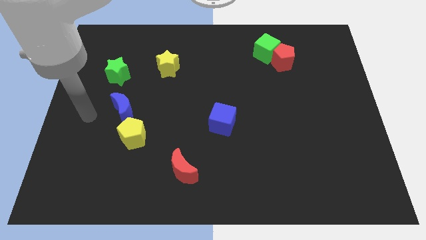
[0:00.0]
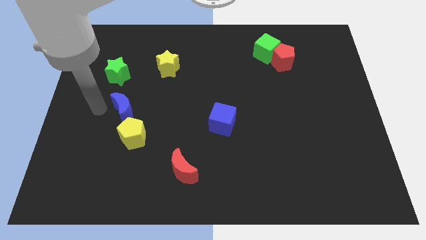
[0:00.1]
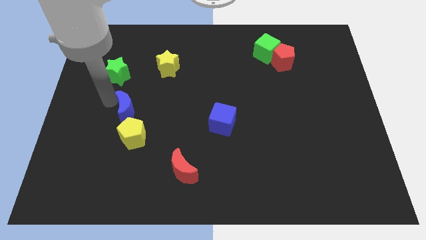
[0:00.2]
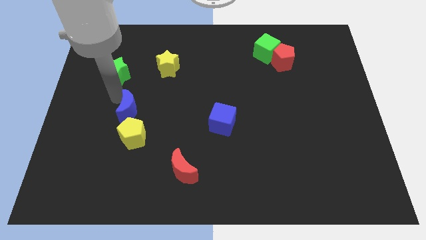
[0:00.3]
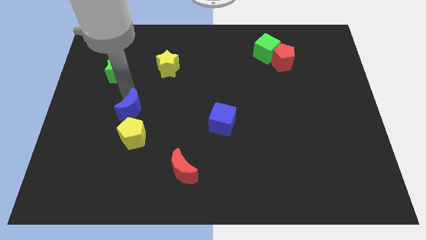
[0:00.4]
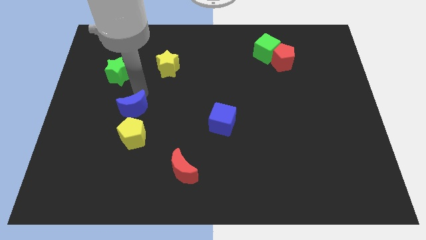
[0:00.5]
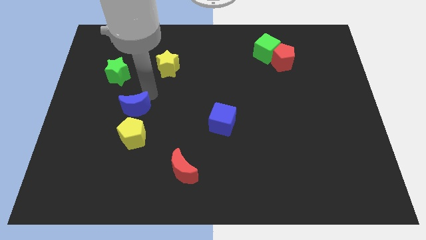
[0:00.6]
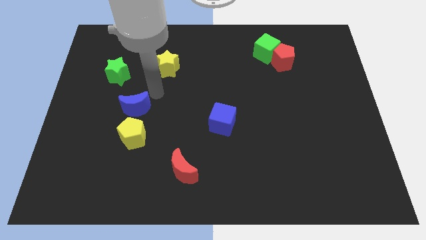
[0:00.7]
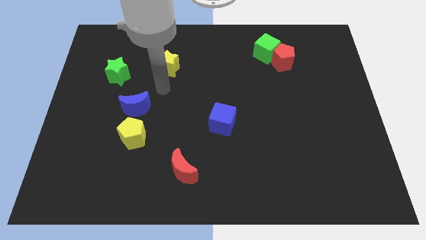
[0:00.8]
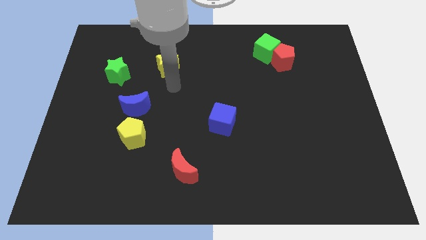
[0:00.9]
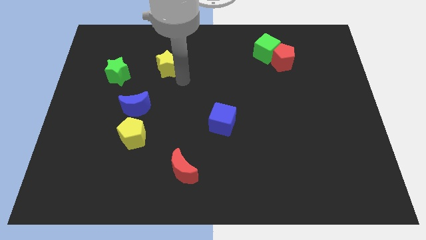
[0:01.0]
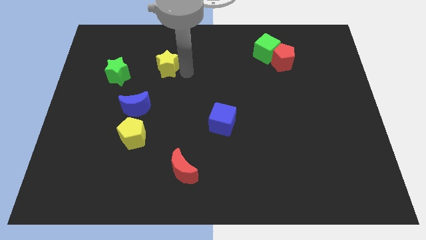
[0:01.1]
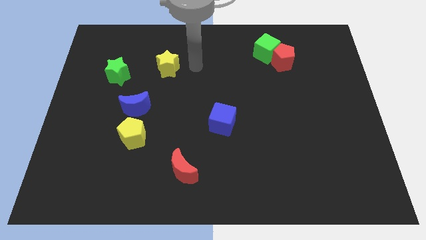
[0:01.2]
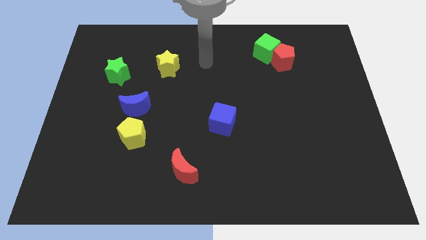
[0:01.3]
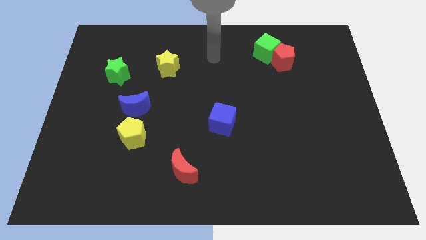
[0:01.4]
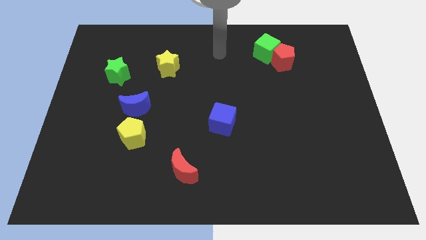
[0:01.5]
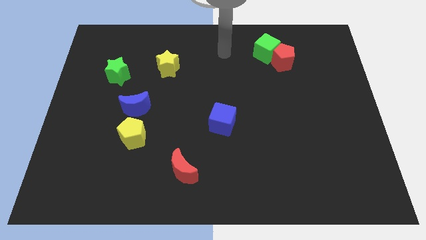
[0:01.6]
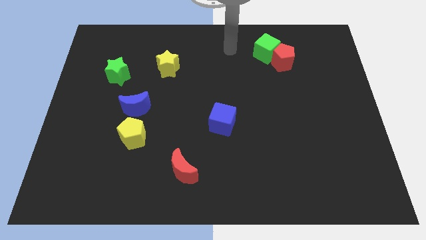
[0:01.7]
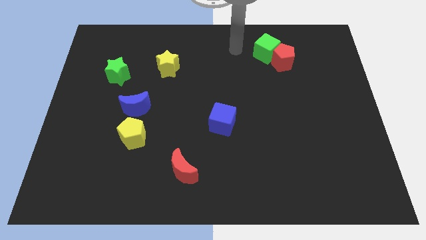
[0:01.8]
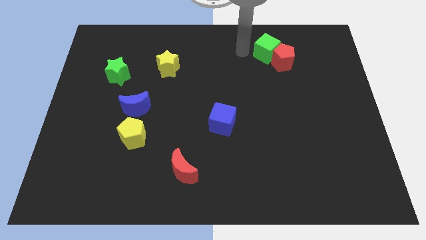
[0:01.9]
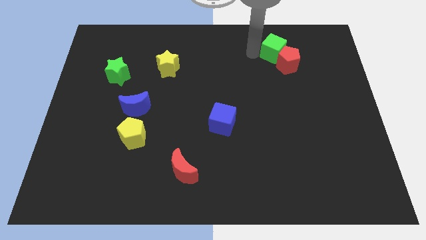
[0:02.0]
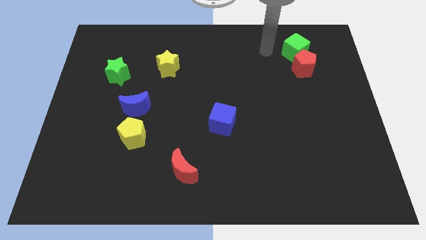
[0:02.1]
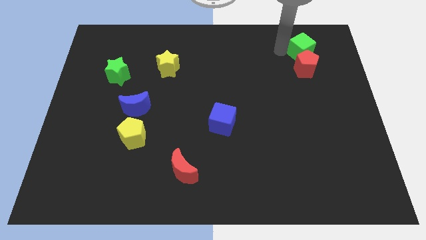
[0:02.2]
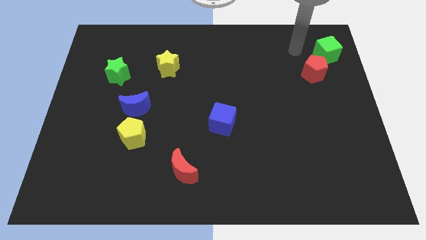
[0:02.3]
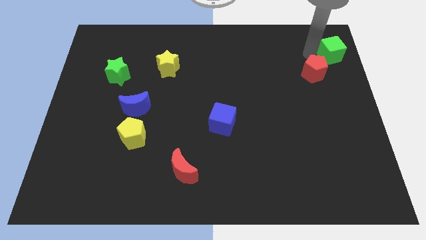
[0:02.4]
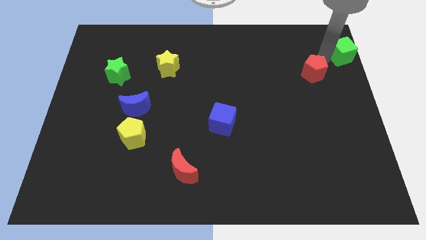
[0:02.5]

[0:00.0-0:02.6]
separate the red pentagon from the green cube

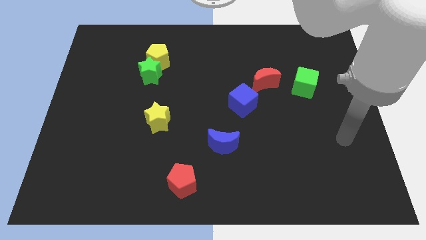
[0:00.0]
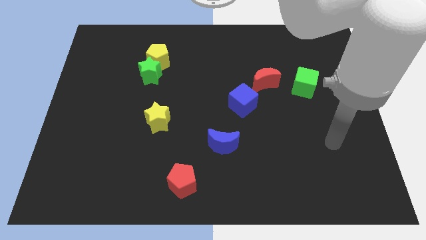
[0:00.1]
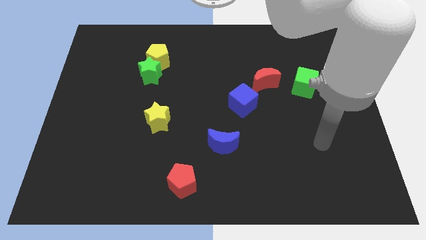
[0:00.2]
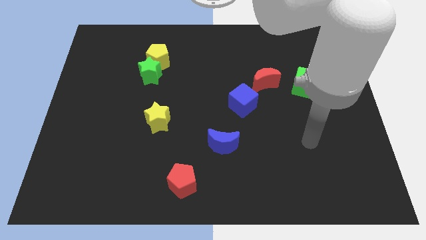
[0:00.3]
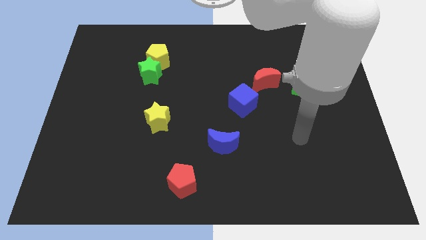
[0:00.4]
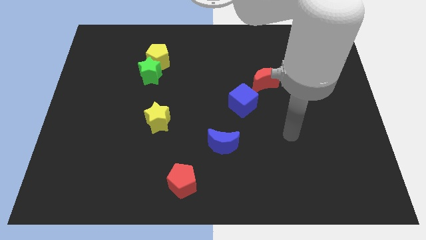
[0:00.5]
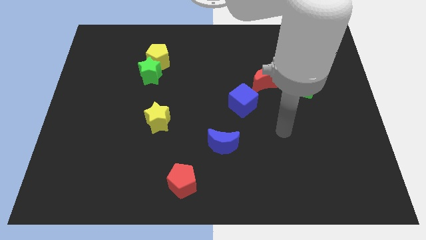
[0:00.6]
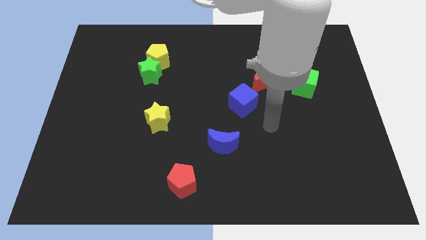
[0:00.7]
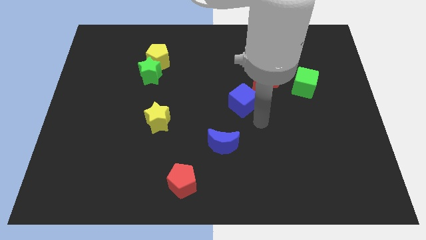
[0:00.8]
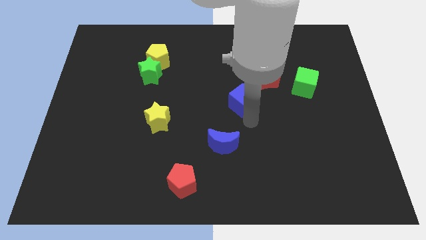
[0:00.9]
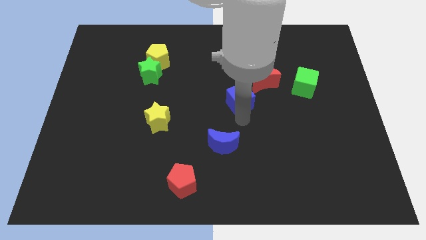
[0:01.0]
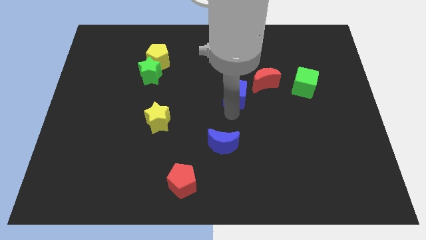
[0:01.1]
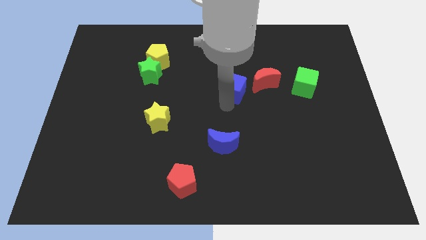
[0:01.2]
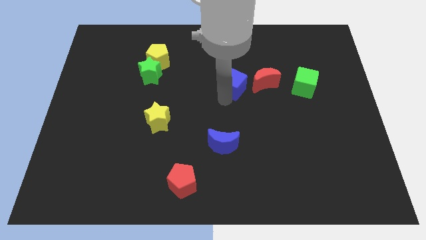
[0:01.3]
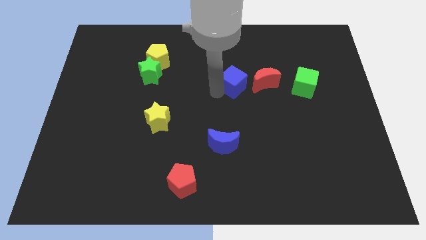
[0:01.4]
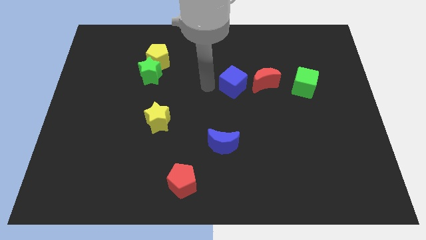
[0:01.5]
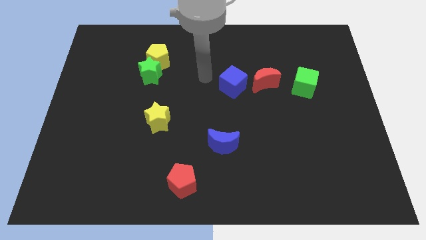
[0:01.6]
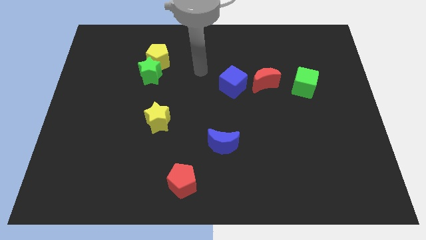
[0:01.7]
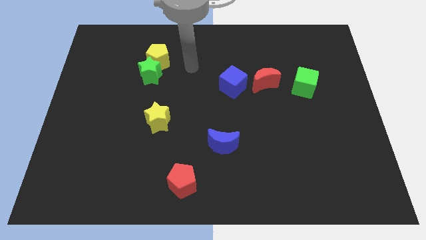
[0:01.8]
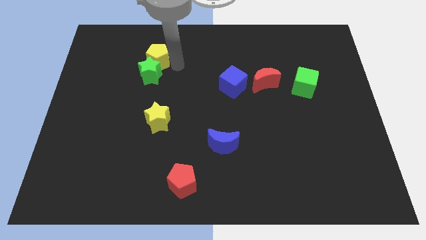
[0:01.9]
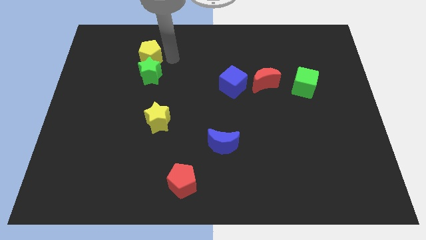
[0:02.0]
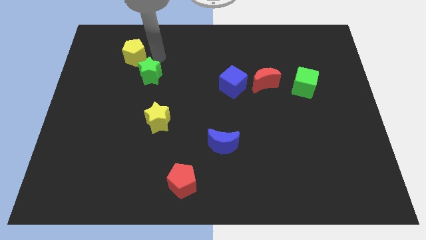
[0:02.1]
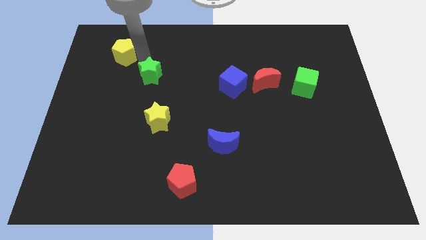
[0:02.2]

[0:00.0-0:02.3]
separate the green star from the yellow pentagon

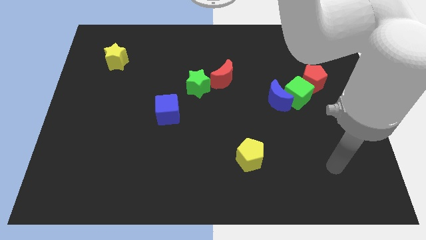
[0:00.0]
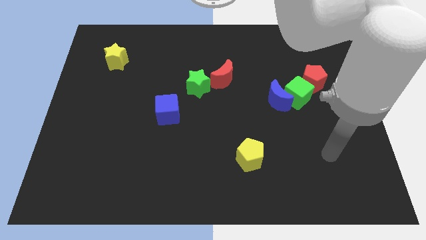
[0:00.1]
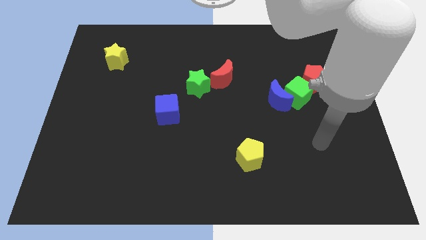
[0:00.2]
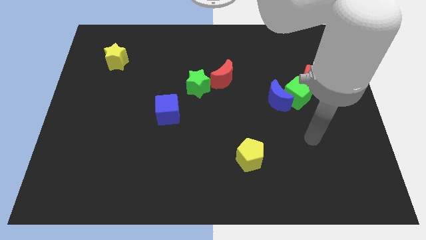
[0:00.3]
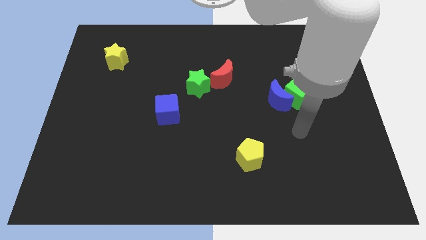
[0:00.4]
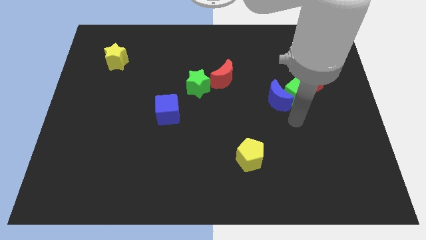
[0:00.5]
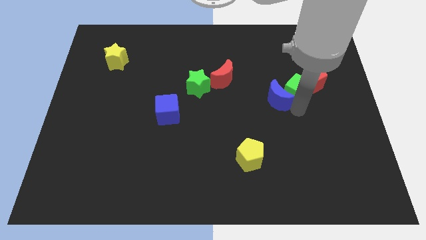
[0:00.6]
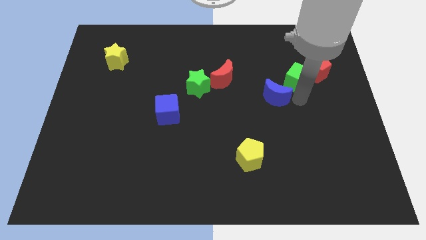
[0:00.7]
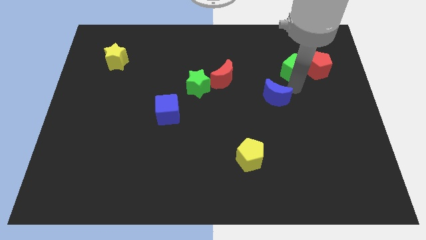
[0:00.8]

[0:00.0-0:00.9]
move the blue moon away from the green cube

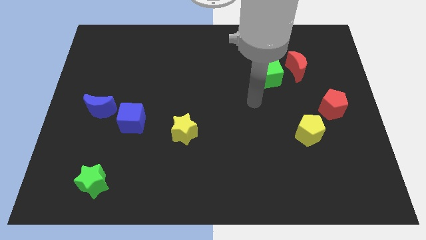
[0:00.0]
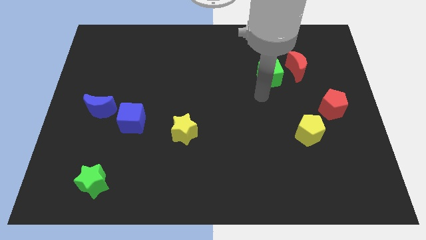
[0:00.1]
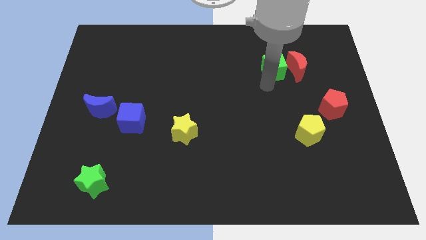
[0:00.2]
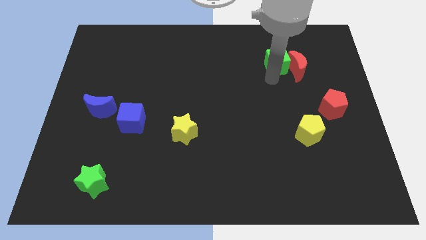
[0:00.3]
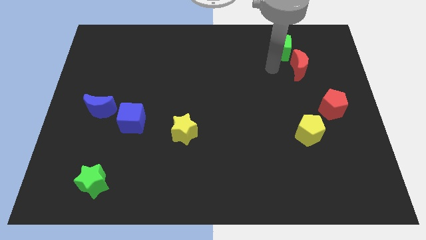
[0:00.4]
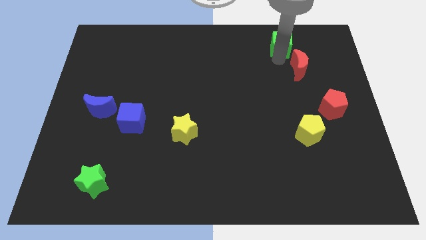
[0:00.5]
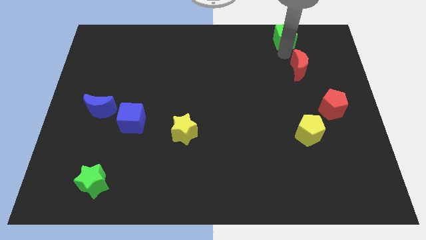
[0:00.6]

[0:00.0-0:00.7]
move the red moon away from the green cube

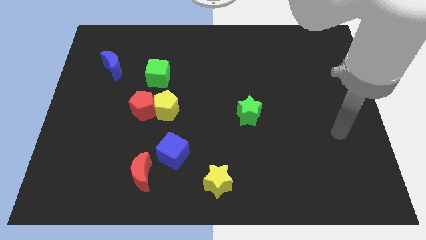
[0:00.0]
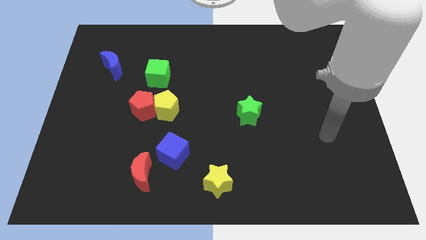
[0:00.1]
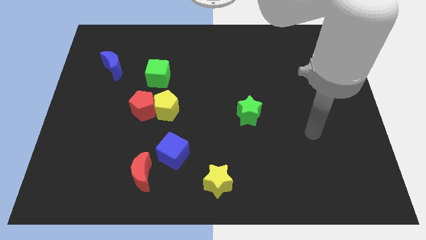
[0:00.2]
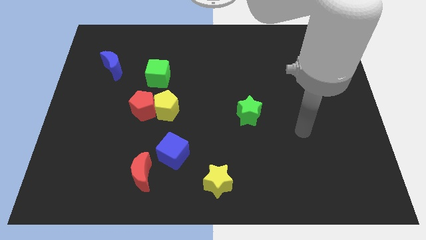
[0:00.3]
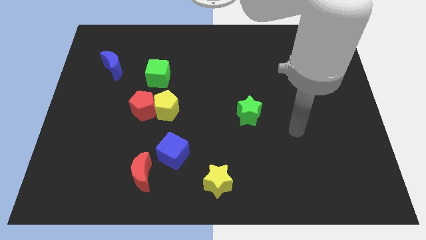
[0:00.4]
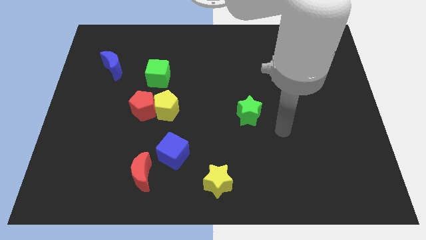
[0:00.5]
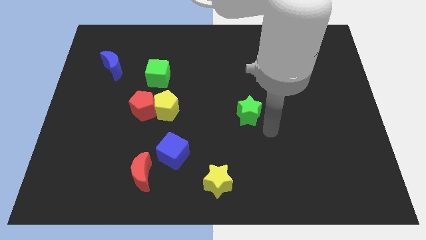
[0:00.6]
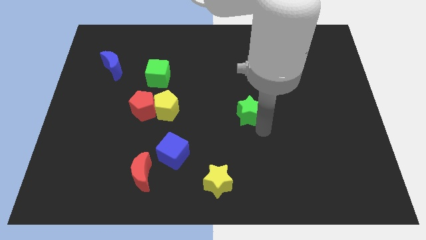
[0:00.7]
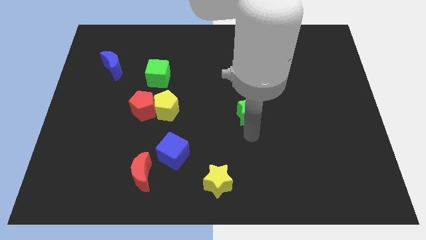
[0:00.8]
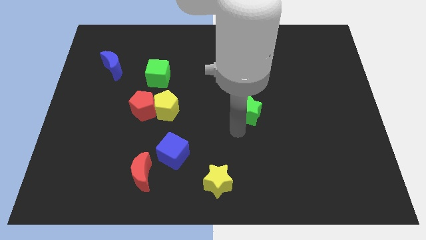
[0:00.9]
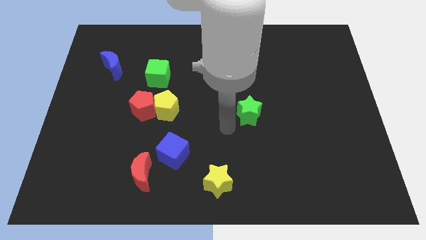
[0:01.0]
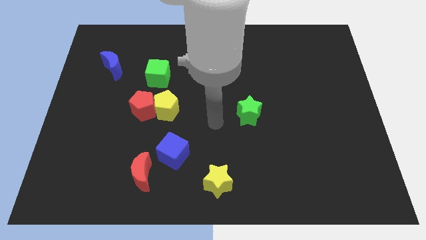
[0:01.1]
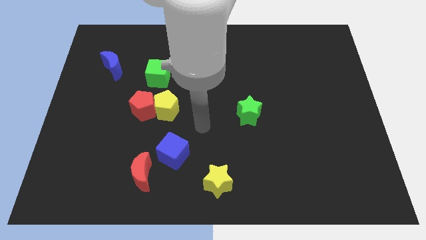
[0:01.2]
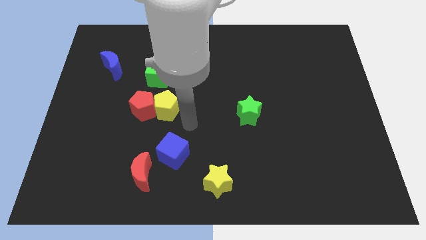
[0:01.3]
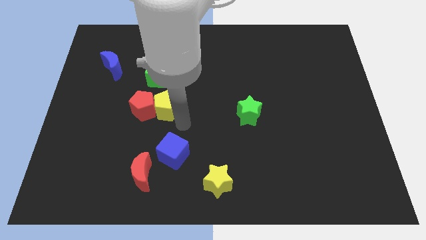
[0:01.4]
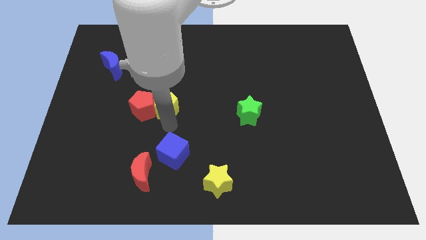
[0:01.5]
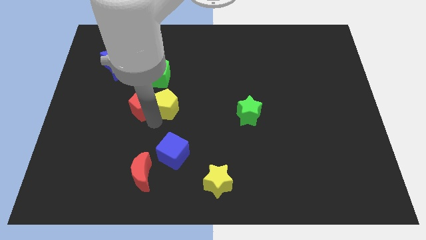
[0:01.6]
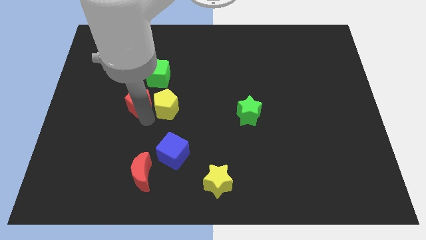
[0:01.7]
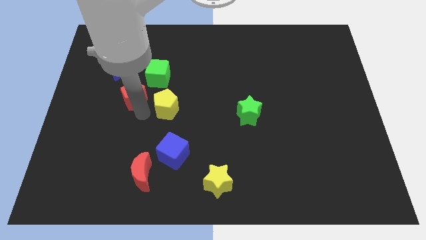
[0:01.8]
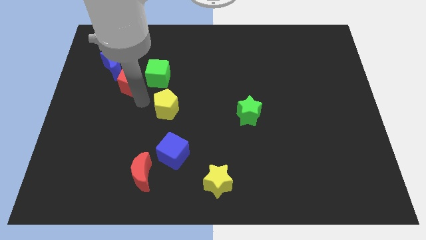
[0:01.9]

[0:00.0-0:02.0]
pull the yellow pentagon apart from the red pentagon

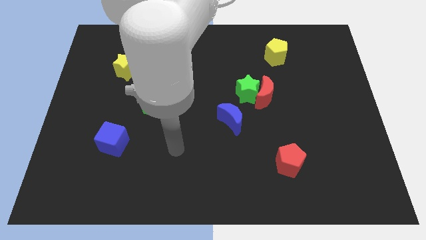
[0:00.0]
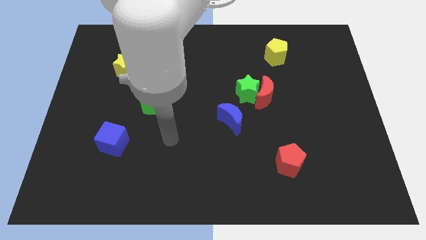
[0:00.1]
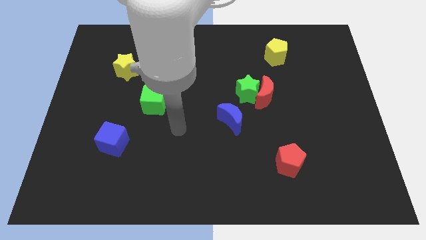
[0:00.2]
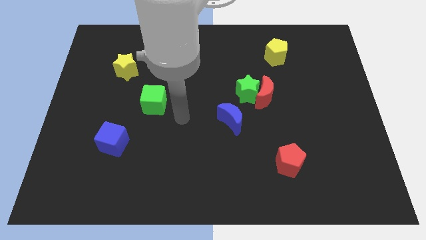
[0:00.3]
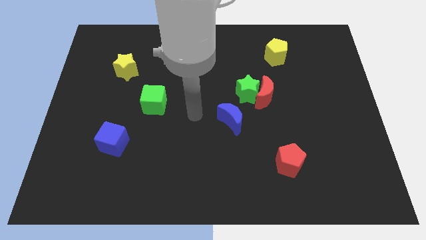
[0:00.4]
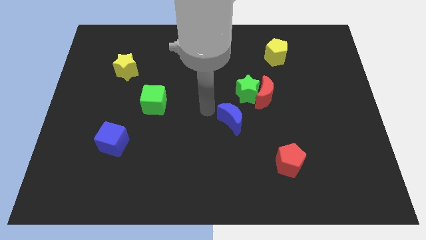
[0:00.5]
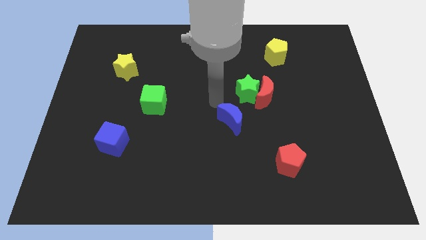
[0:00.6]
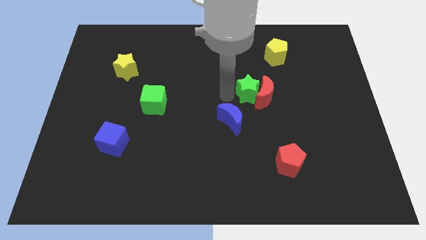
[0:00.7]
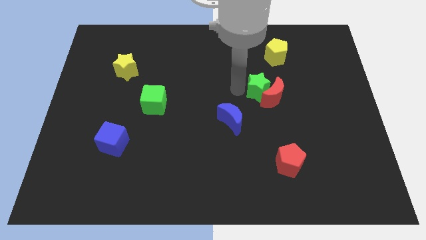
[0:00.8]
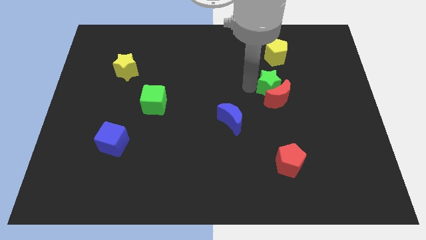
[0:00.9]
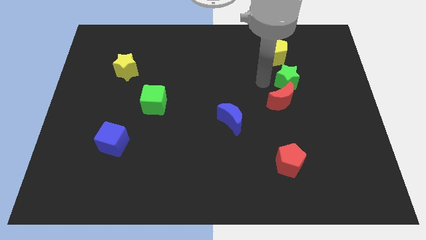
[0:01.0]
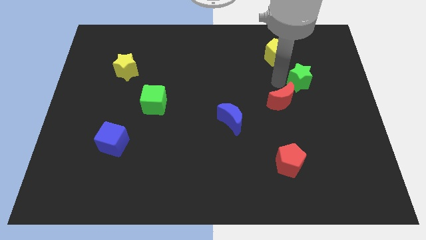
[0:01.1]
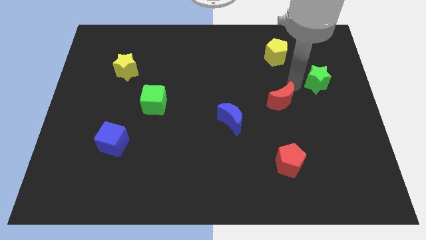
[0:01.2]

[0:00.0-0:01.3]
separate the red moon from the green star